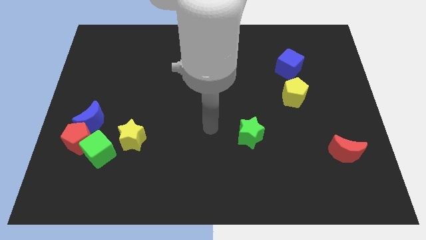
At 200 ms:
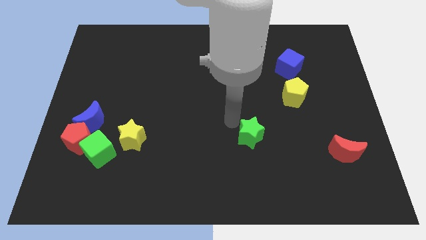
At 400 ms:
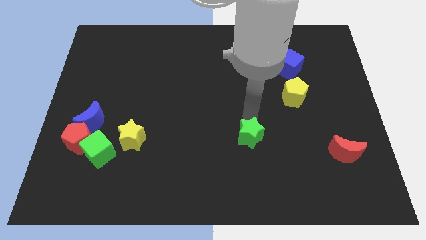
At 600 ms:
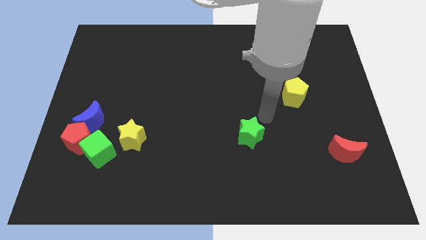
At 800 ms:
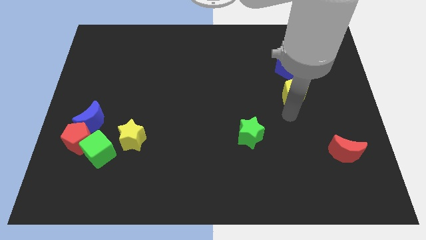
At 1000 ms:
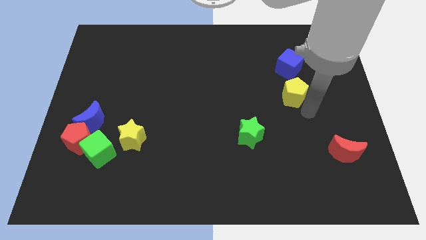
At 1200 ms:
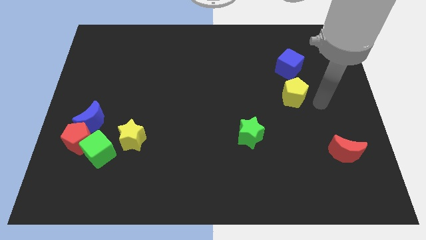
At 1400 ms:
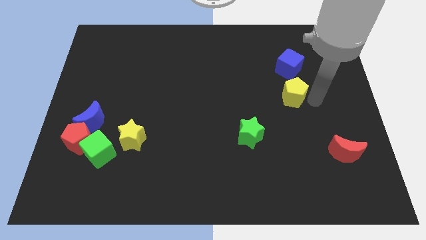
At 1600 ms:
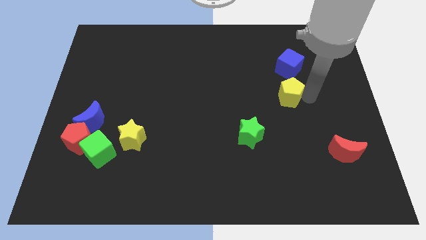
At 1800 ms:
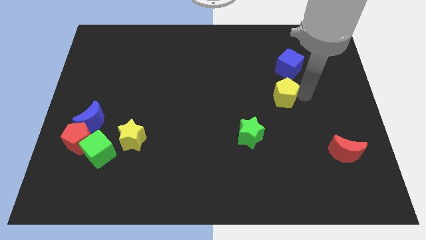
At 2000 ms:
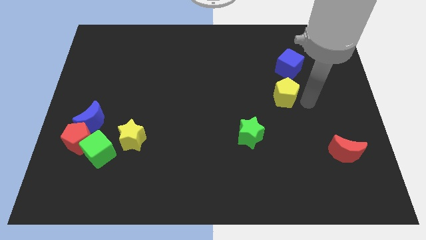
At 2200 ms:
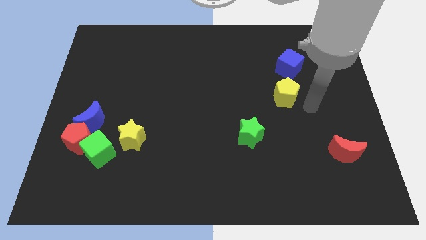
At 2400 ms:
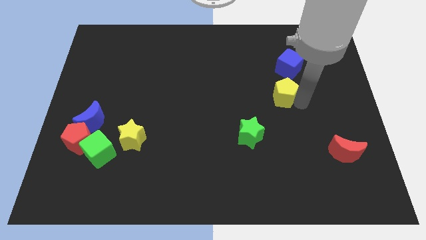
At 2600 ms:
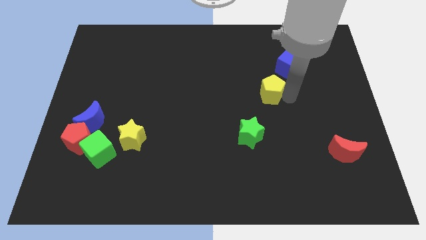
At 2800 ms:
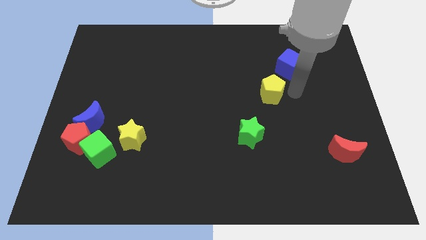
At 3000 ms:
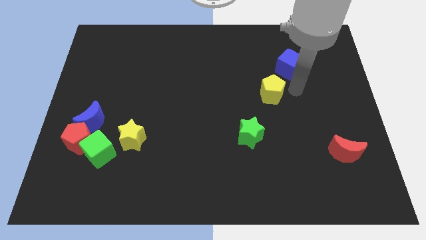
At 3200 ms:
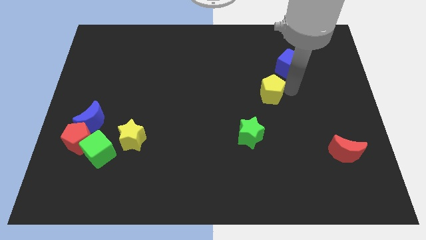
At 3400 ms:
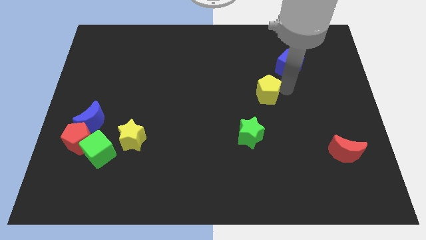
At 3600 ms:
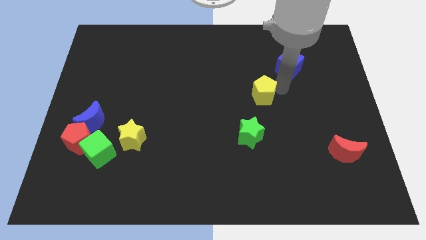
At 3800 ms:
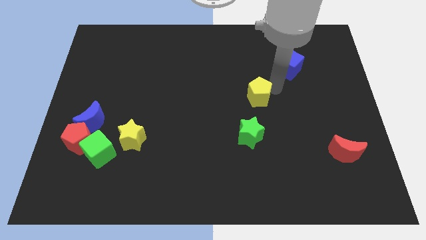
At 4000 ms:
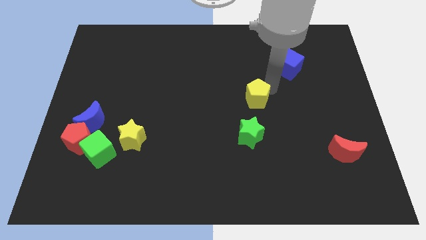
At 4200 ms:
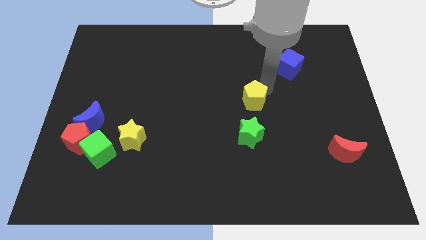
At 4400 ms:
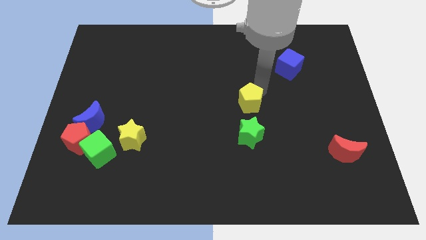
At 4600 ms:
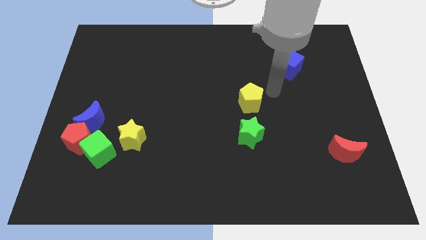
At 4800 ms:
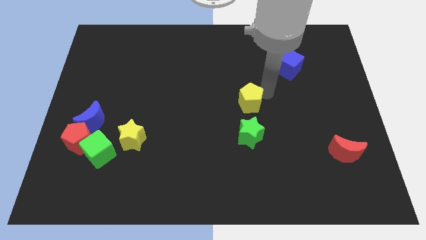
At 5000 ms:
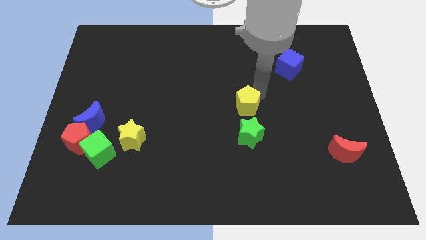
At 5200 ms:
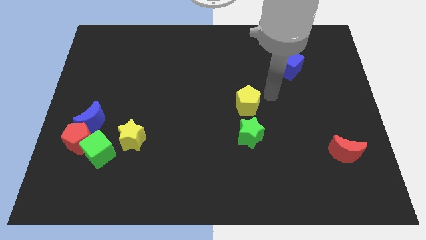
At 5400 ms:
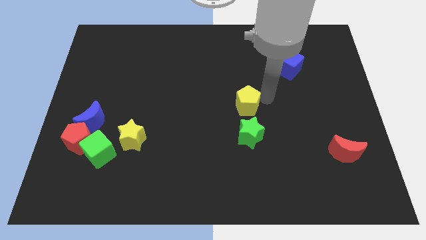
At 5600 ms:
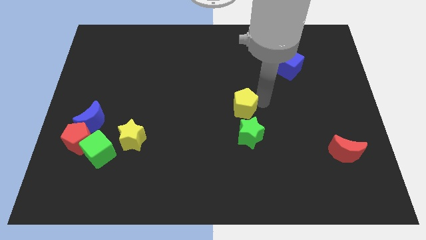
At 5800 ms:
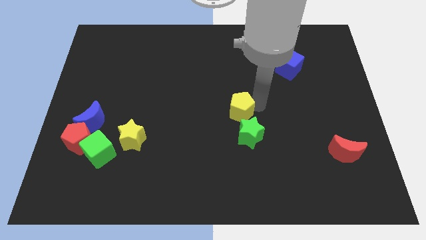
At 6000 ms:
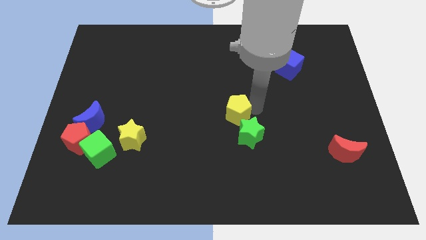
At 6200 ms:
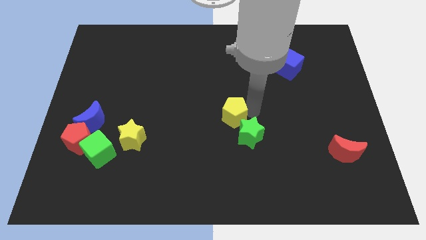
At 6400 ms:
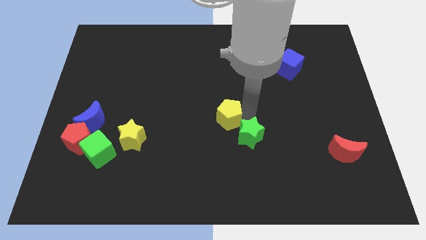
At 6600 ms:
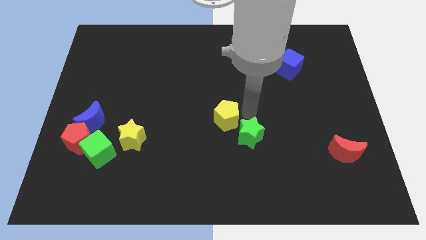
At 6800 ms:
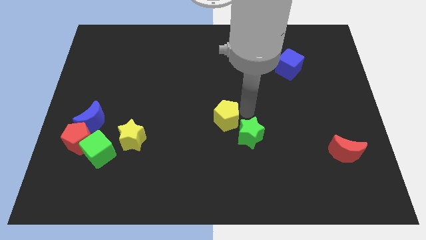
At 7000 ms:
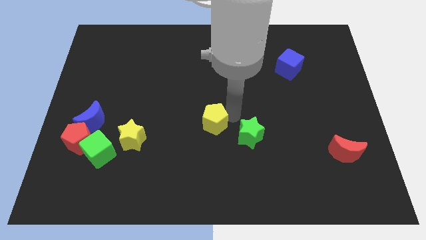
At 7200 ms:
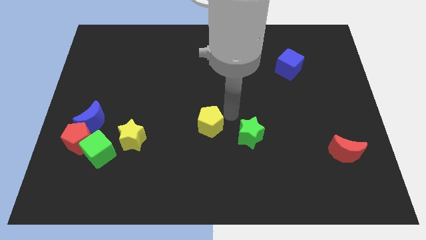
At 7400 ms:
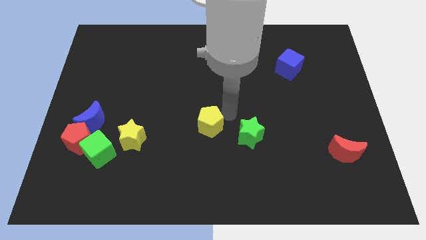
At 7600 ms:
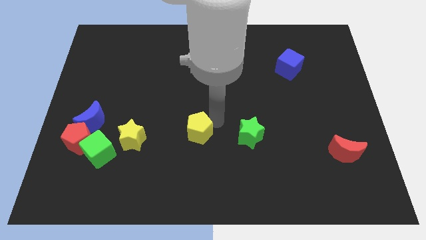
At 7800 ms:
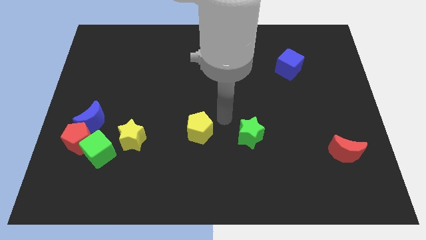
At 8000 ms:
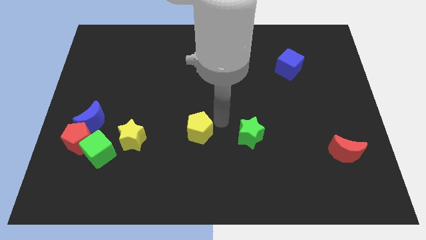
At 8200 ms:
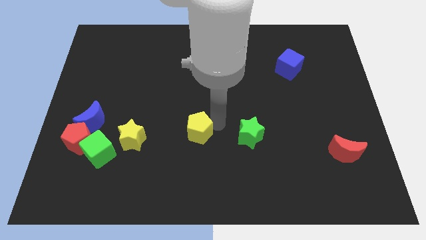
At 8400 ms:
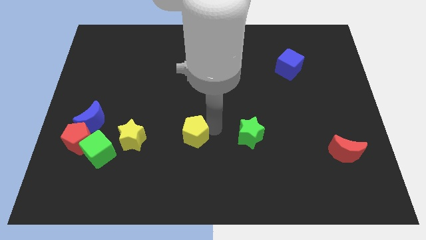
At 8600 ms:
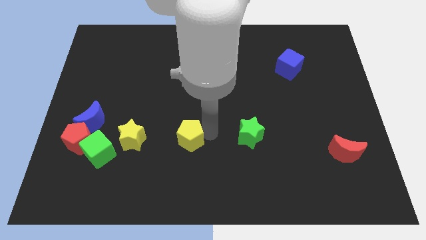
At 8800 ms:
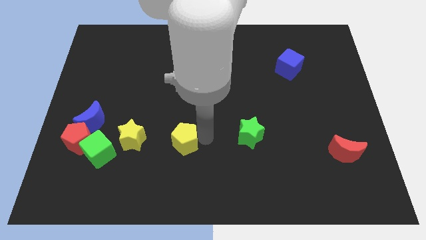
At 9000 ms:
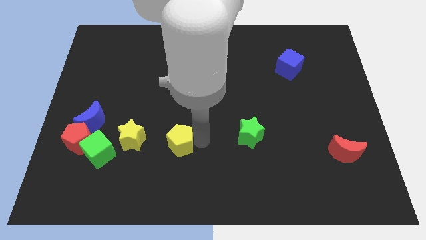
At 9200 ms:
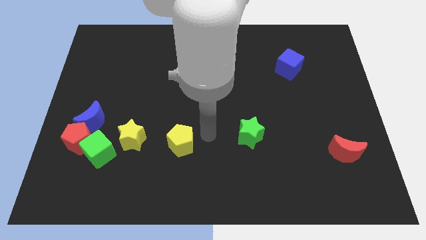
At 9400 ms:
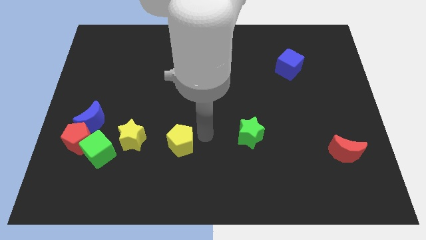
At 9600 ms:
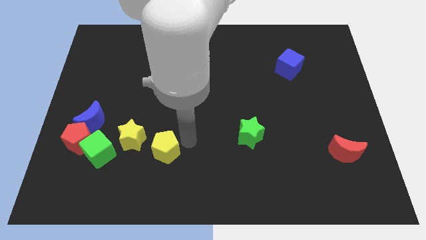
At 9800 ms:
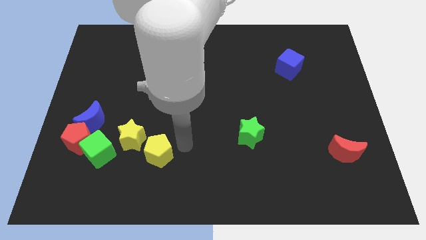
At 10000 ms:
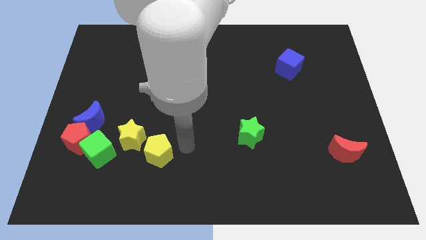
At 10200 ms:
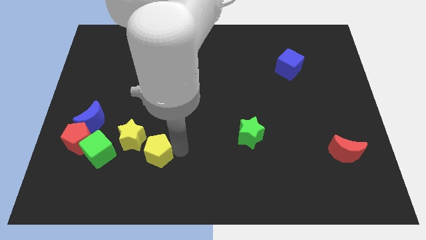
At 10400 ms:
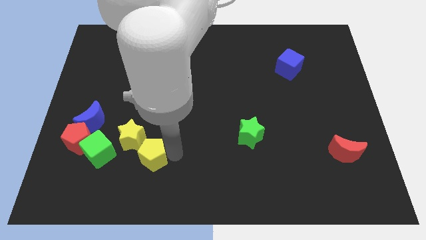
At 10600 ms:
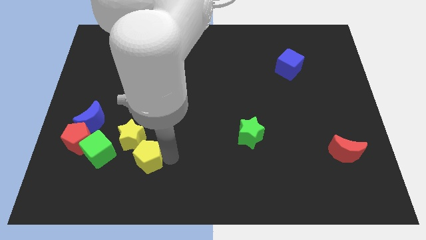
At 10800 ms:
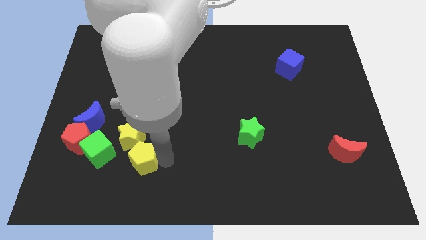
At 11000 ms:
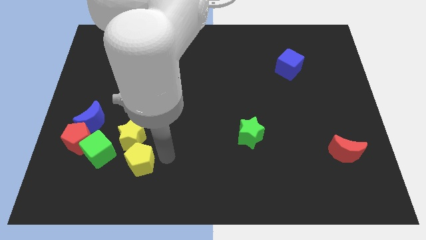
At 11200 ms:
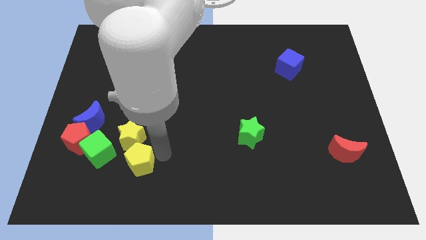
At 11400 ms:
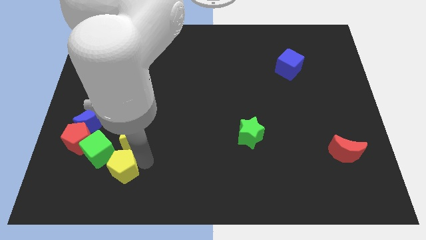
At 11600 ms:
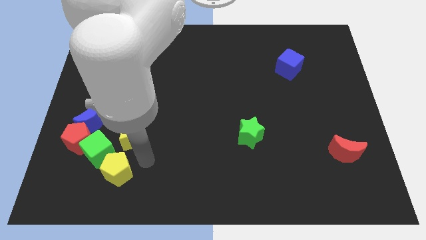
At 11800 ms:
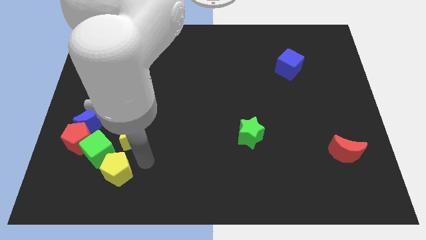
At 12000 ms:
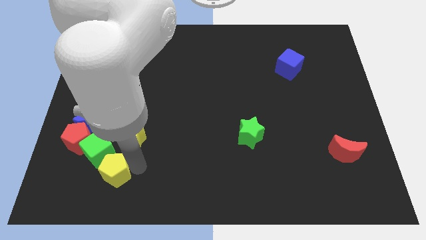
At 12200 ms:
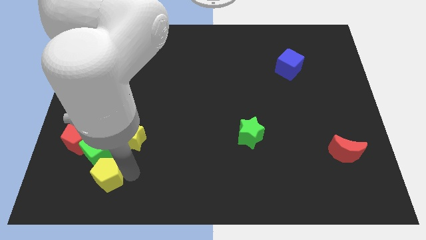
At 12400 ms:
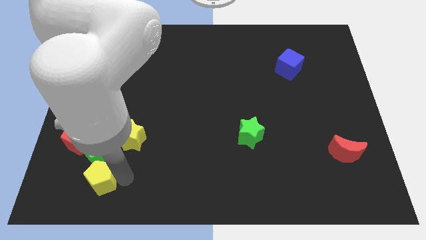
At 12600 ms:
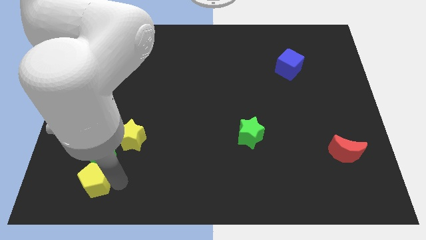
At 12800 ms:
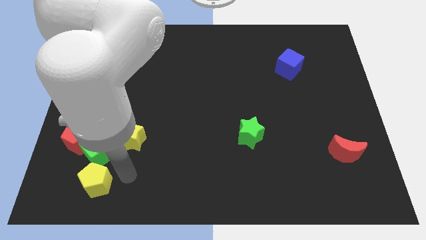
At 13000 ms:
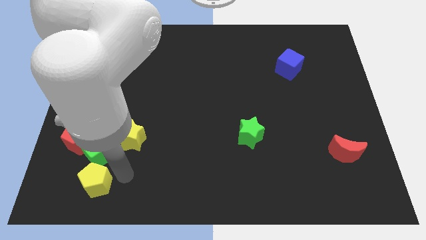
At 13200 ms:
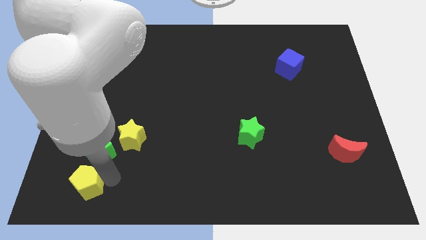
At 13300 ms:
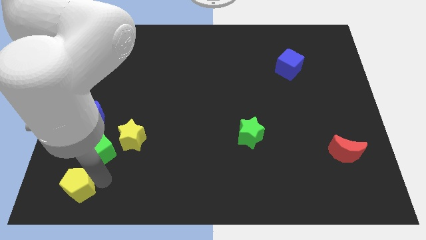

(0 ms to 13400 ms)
move the yellow pentagon to the lower left corner
